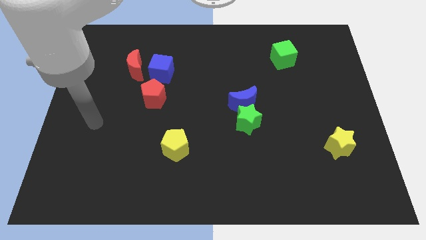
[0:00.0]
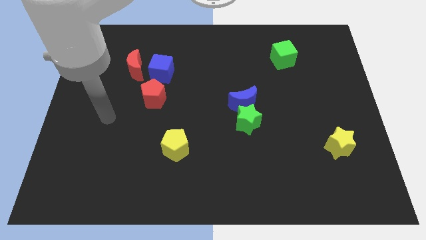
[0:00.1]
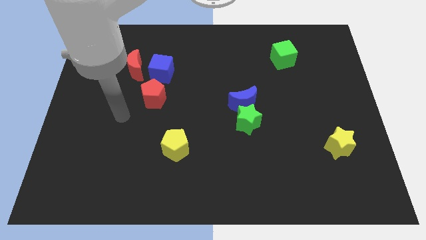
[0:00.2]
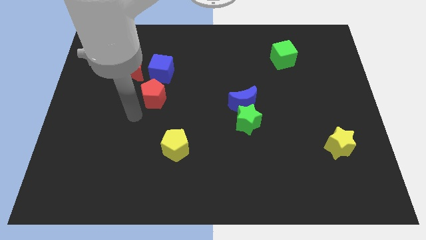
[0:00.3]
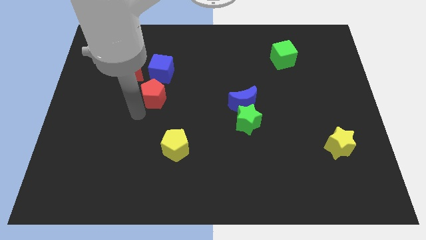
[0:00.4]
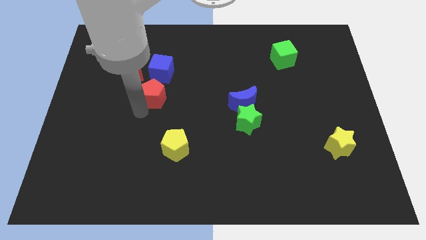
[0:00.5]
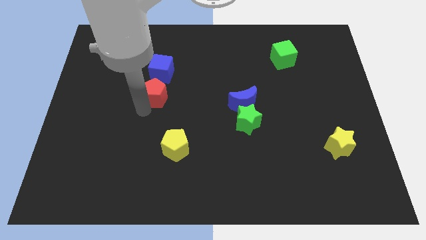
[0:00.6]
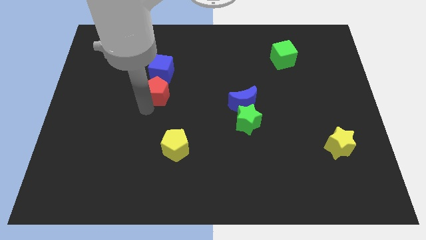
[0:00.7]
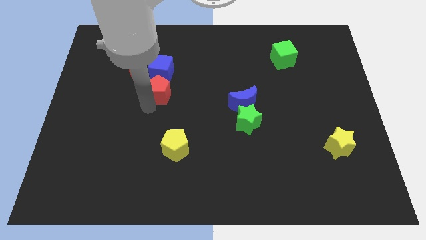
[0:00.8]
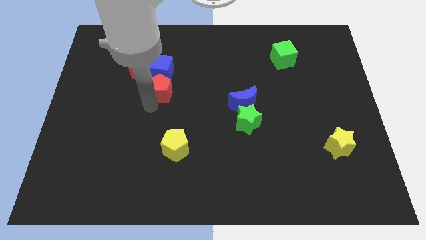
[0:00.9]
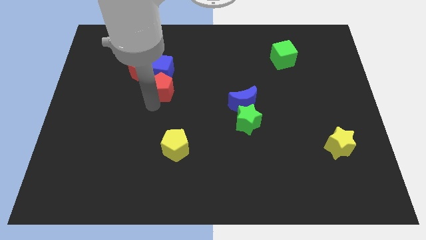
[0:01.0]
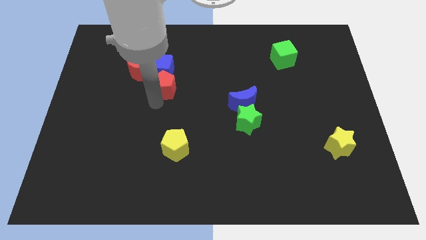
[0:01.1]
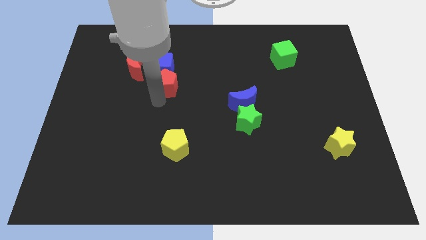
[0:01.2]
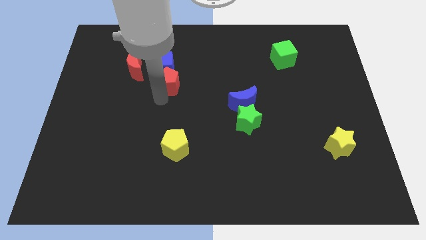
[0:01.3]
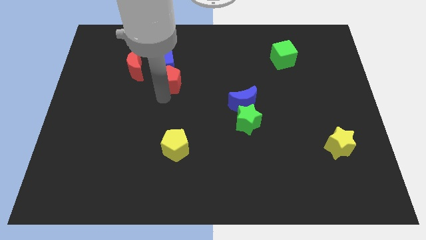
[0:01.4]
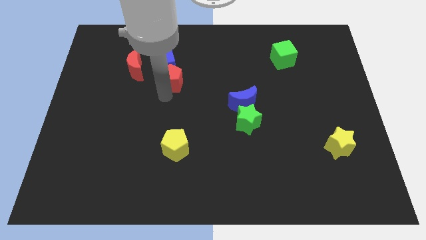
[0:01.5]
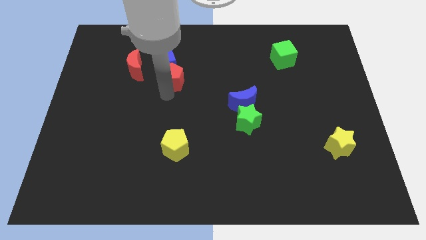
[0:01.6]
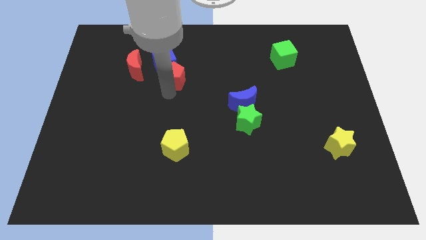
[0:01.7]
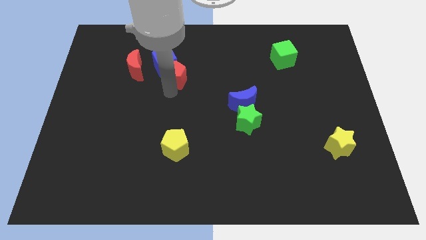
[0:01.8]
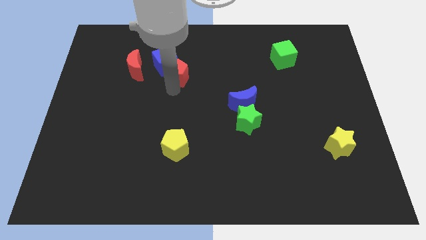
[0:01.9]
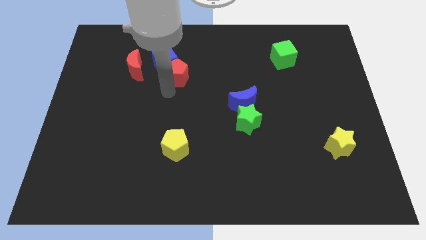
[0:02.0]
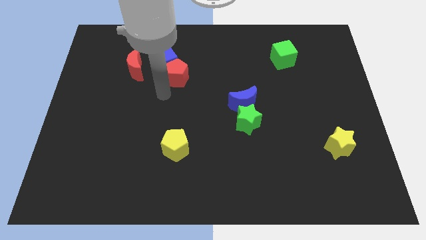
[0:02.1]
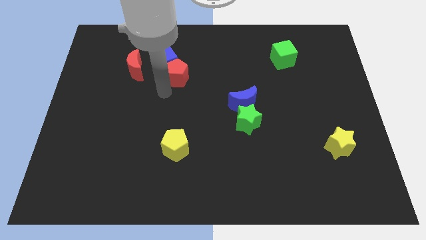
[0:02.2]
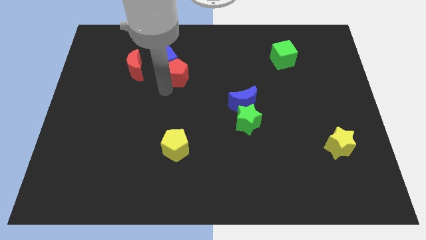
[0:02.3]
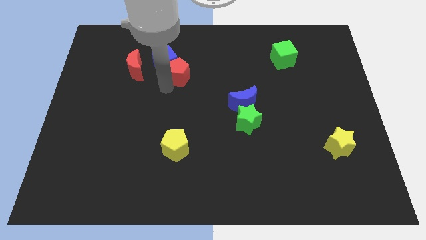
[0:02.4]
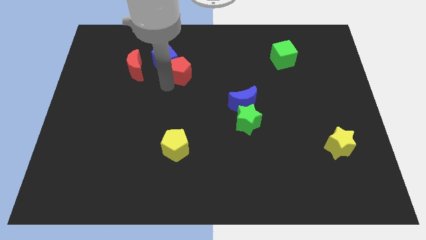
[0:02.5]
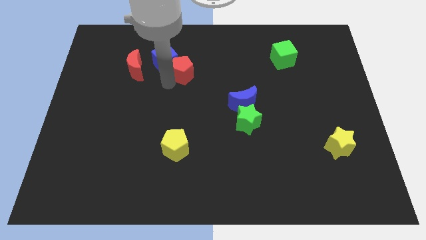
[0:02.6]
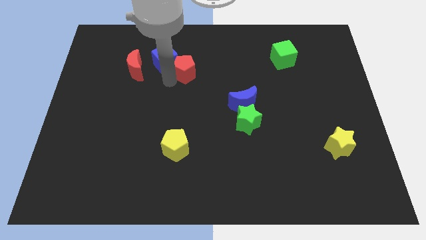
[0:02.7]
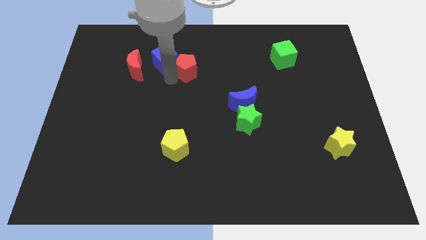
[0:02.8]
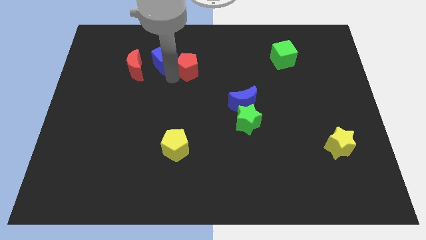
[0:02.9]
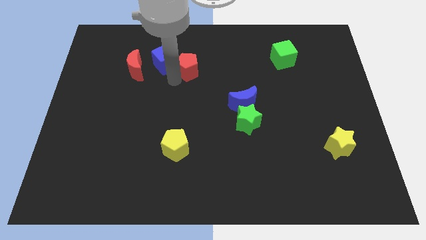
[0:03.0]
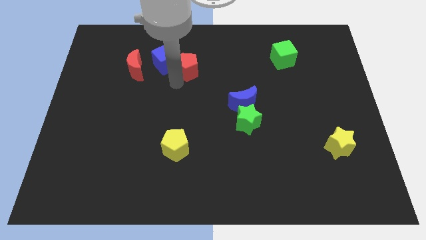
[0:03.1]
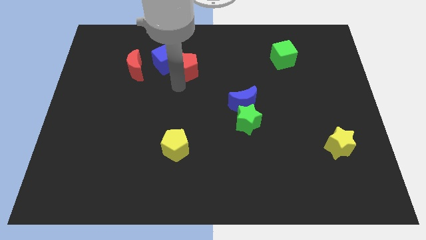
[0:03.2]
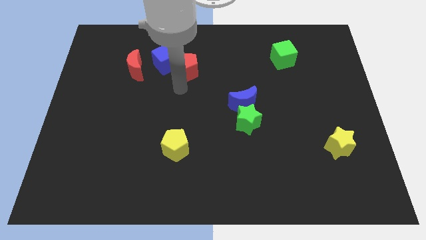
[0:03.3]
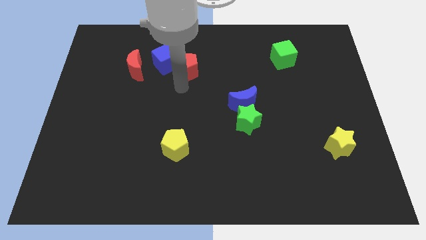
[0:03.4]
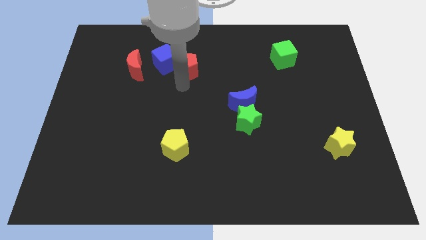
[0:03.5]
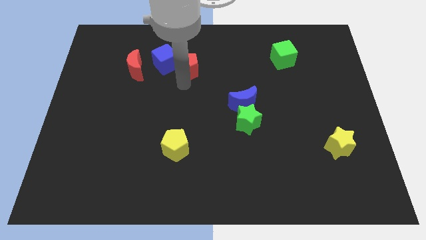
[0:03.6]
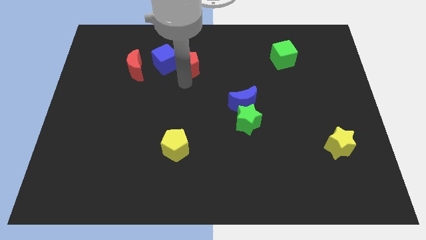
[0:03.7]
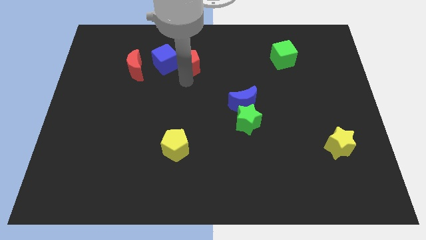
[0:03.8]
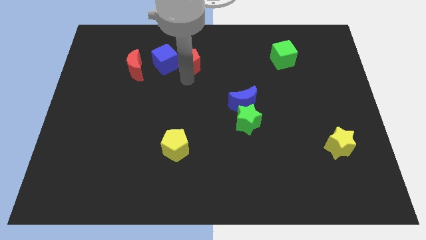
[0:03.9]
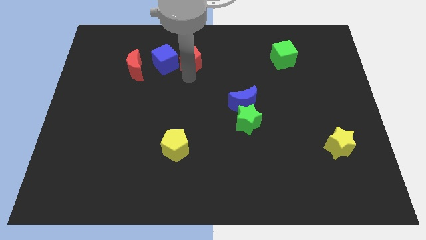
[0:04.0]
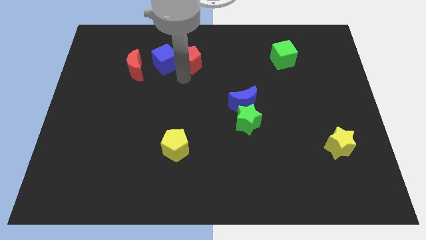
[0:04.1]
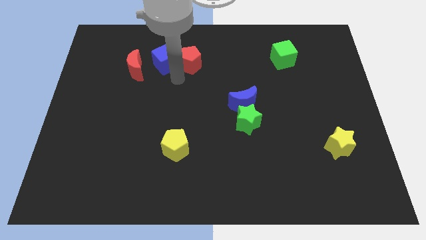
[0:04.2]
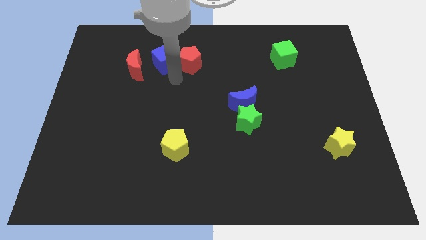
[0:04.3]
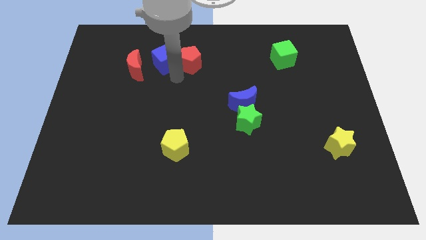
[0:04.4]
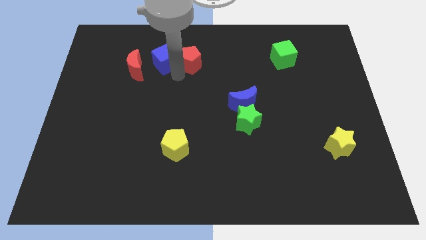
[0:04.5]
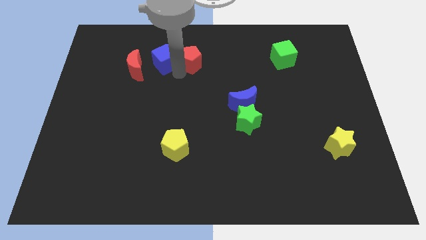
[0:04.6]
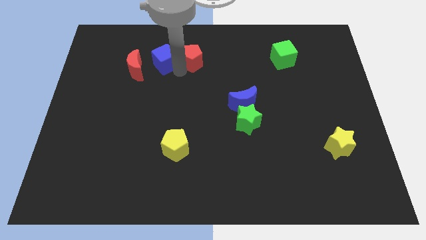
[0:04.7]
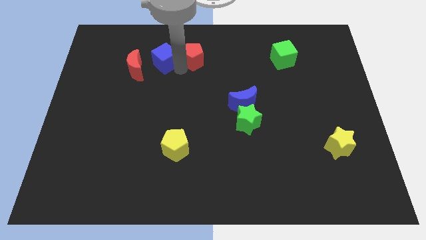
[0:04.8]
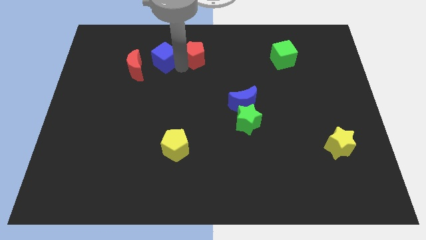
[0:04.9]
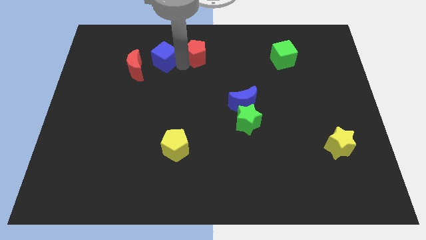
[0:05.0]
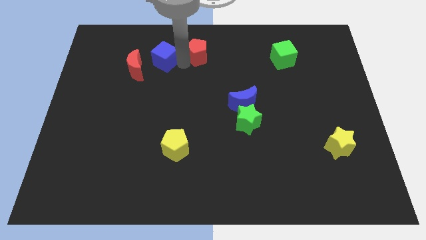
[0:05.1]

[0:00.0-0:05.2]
move the red pentagon to the top side

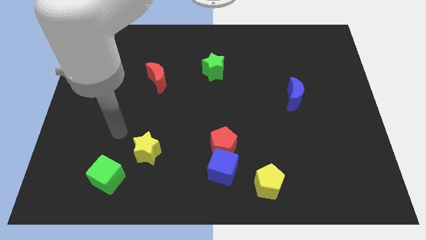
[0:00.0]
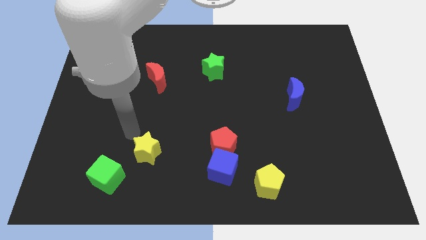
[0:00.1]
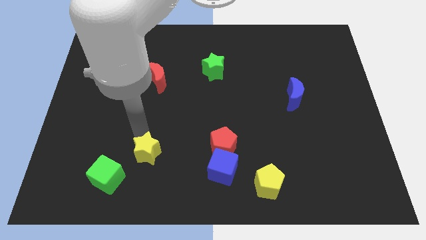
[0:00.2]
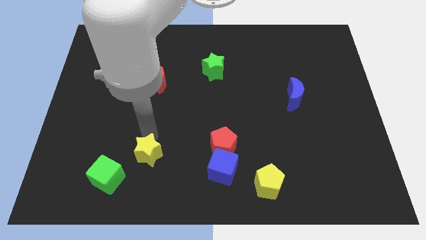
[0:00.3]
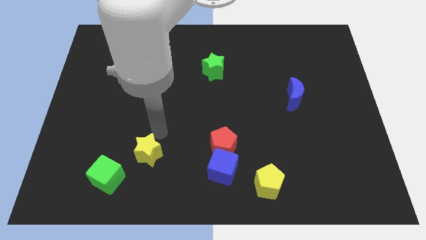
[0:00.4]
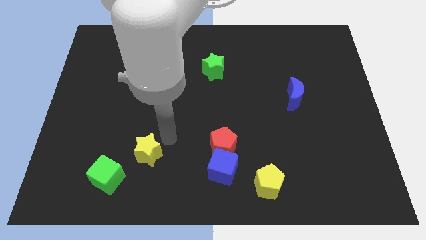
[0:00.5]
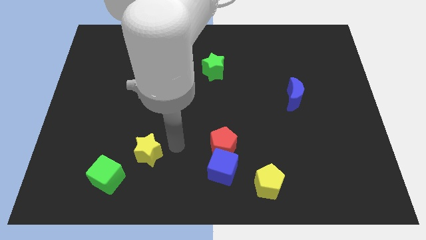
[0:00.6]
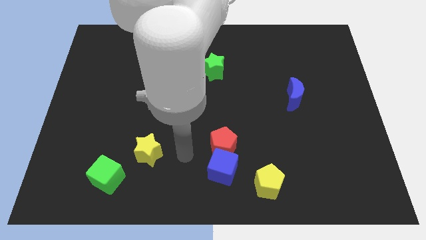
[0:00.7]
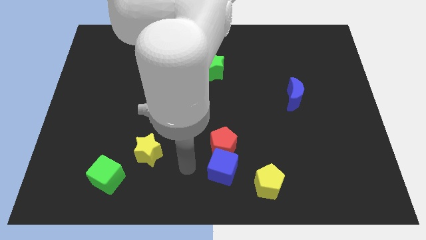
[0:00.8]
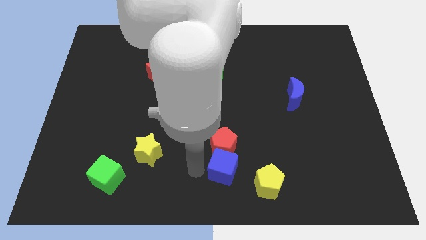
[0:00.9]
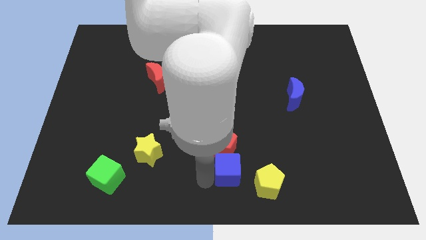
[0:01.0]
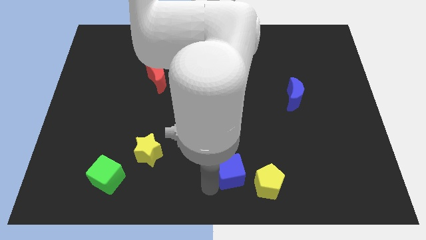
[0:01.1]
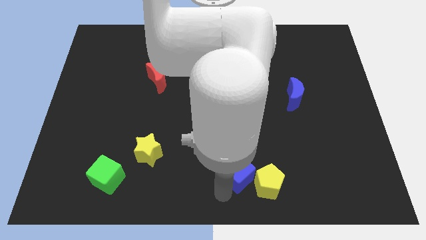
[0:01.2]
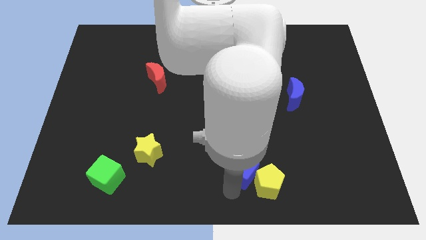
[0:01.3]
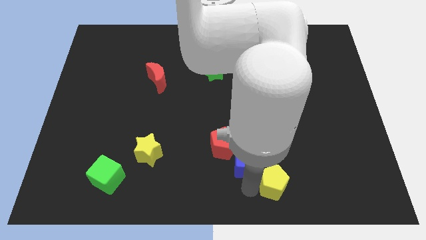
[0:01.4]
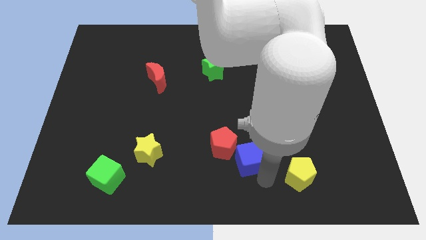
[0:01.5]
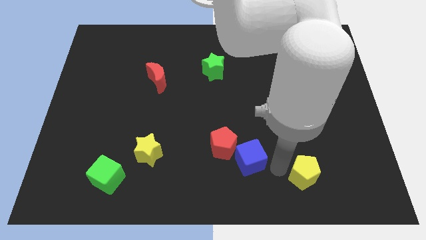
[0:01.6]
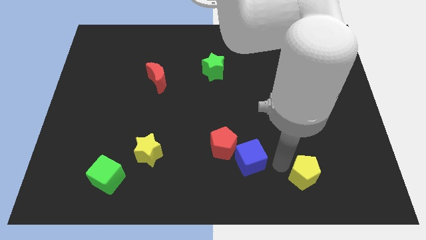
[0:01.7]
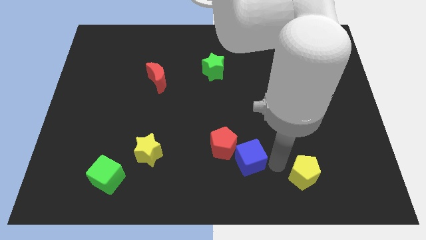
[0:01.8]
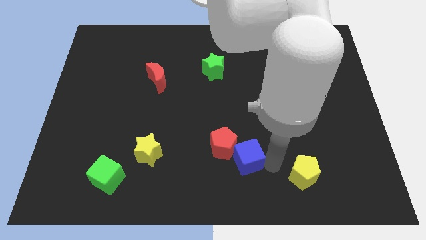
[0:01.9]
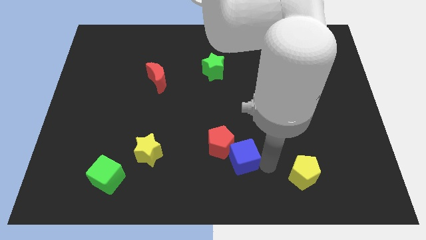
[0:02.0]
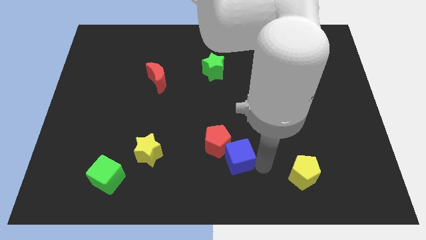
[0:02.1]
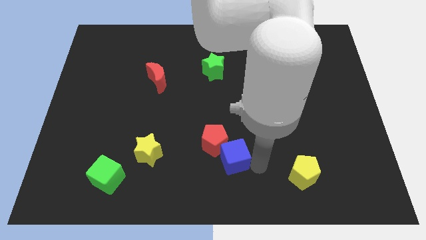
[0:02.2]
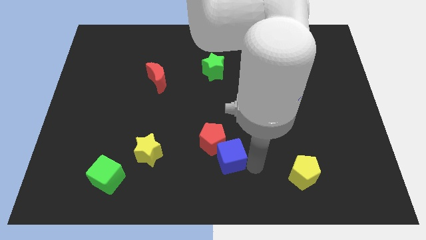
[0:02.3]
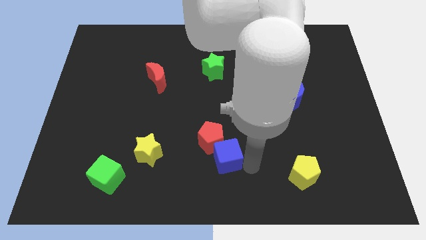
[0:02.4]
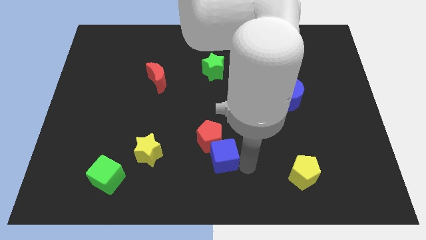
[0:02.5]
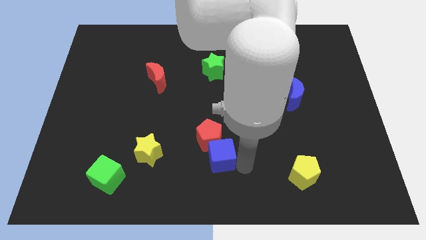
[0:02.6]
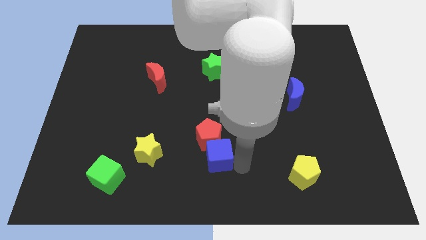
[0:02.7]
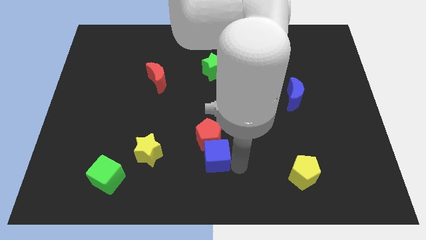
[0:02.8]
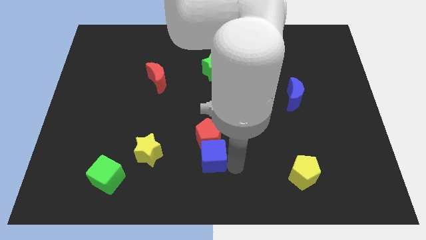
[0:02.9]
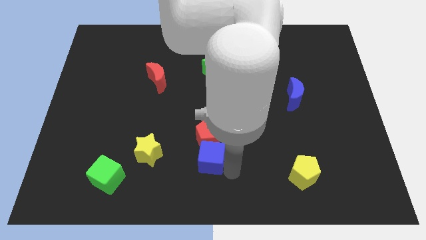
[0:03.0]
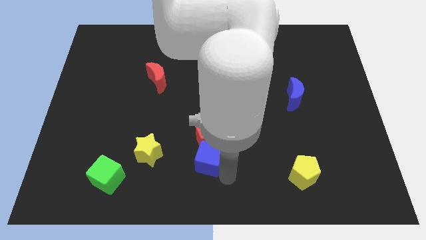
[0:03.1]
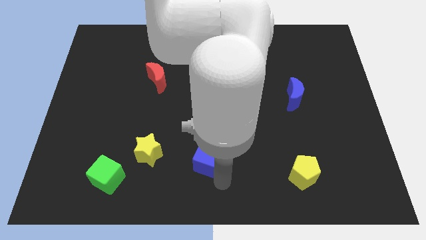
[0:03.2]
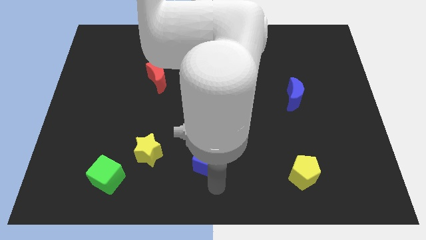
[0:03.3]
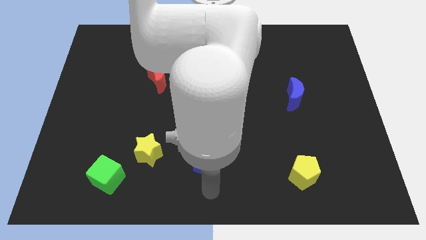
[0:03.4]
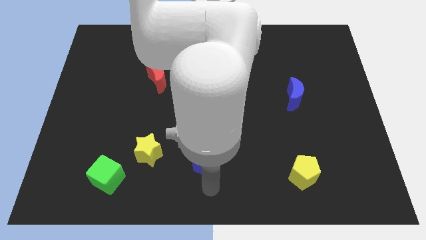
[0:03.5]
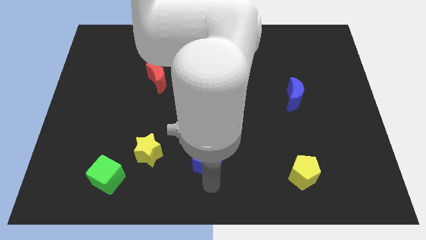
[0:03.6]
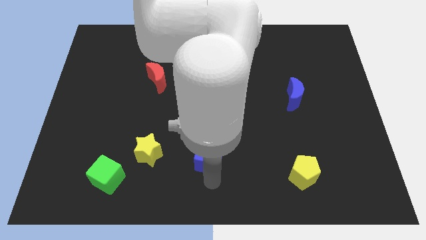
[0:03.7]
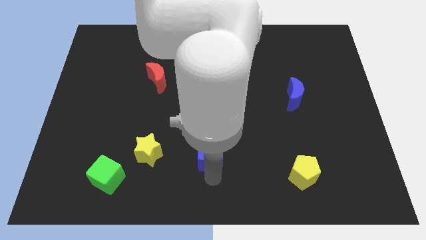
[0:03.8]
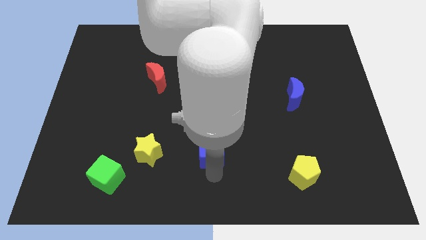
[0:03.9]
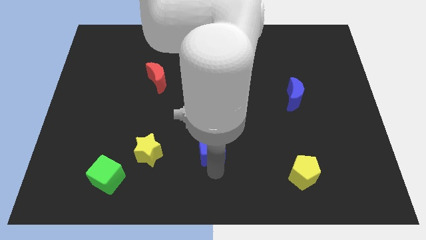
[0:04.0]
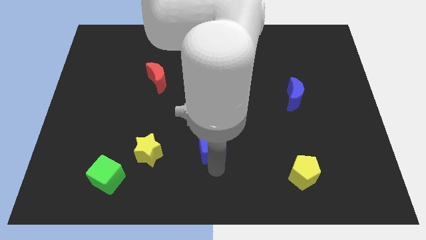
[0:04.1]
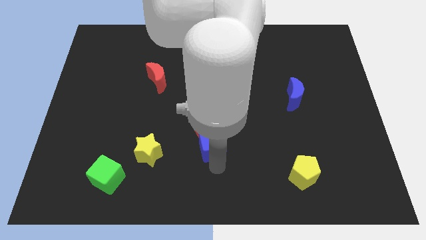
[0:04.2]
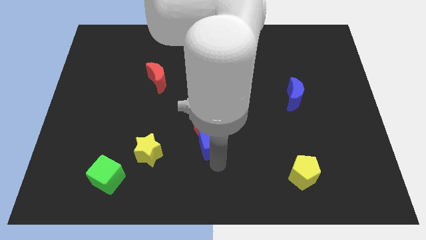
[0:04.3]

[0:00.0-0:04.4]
move the blue cube to the middle
